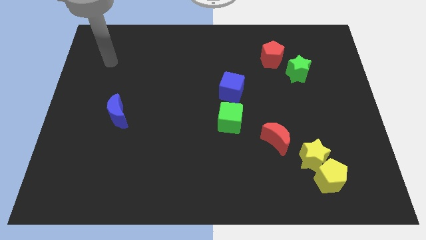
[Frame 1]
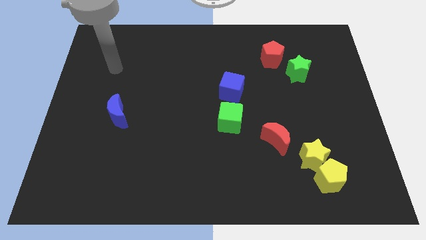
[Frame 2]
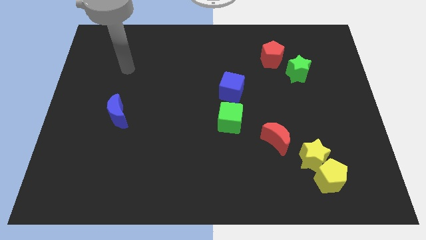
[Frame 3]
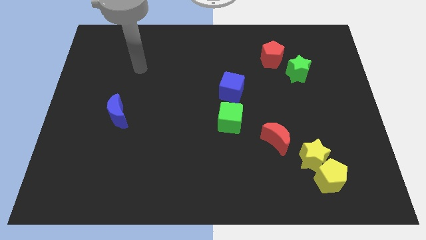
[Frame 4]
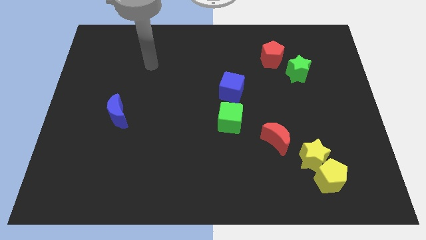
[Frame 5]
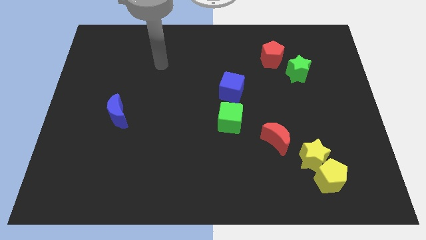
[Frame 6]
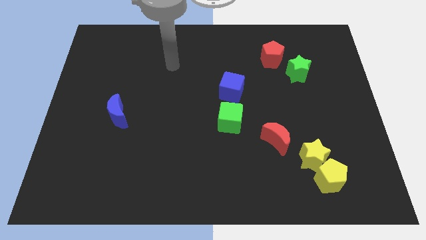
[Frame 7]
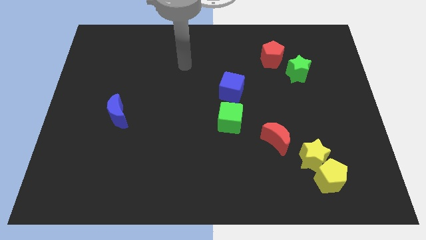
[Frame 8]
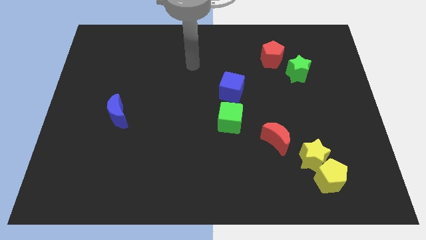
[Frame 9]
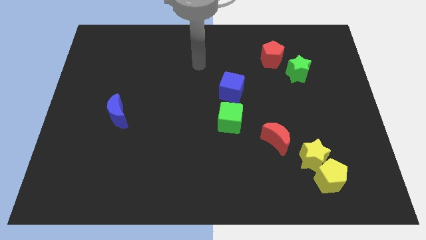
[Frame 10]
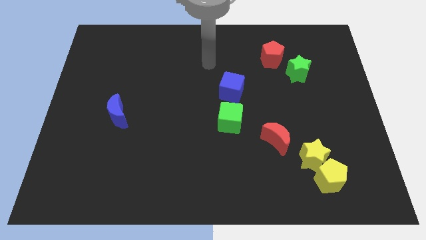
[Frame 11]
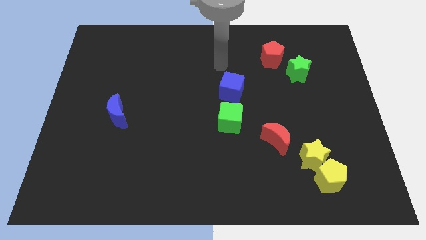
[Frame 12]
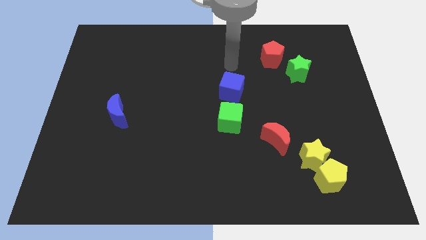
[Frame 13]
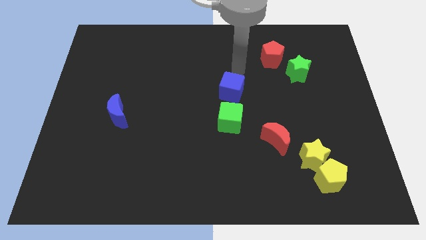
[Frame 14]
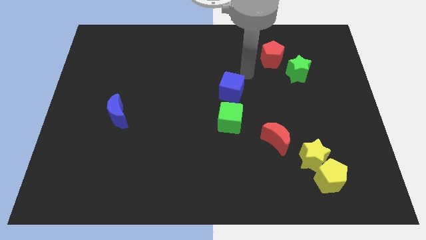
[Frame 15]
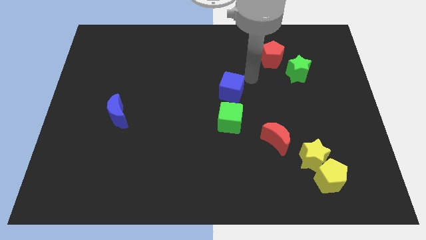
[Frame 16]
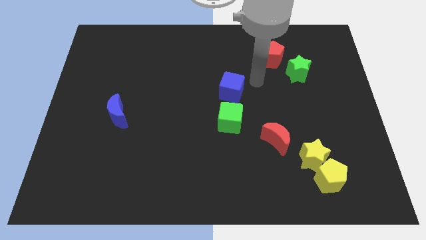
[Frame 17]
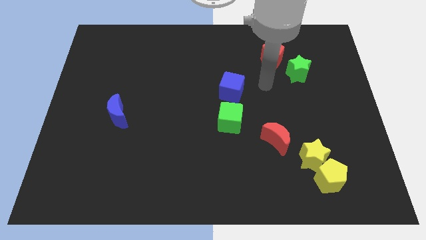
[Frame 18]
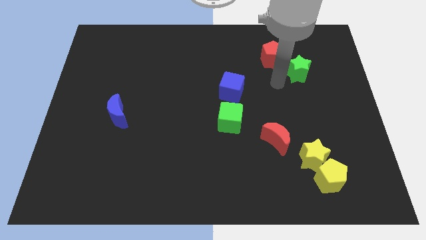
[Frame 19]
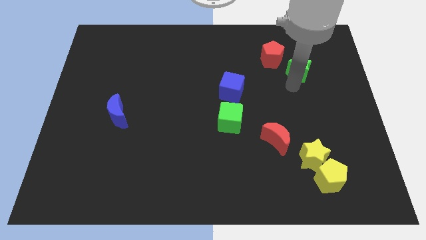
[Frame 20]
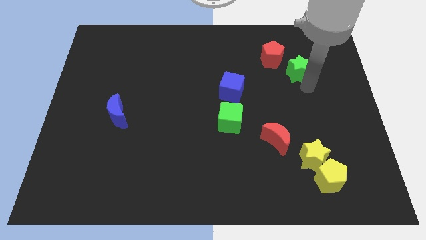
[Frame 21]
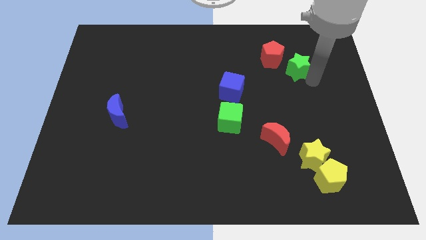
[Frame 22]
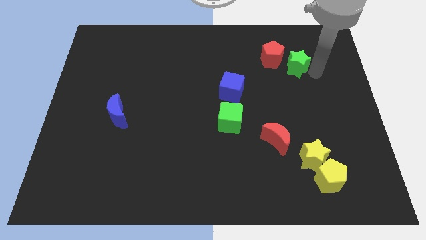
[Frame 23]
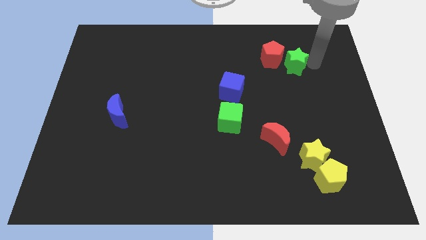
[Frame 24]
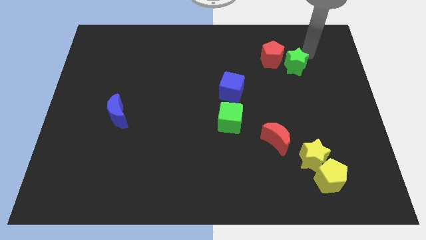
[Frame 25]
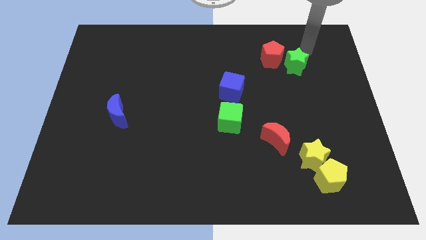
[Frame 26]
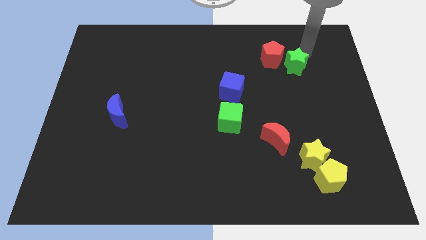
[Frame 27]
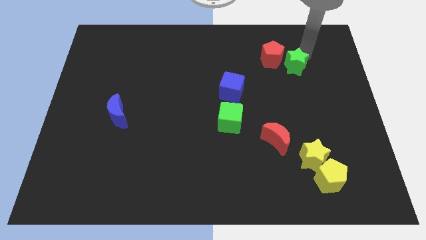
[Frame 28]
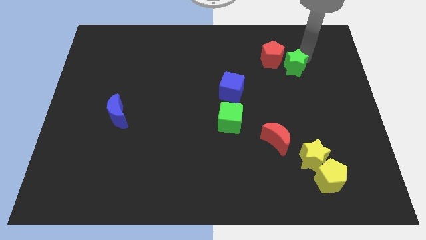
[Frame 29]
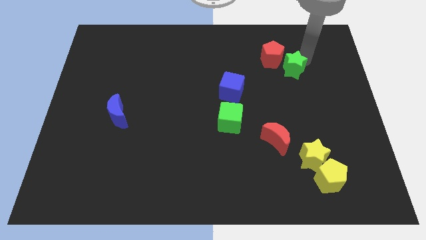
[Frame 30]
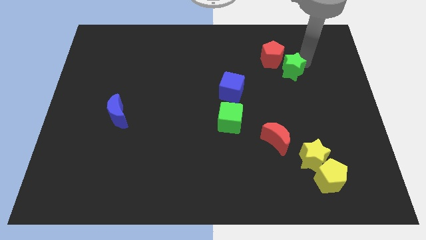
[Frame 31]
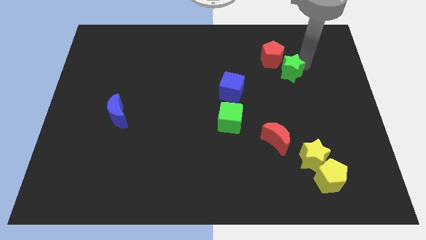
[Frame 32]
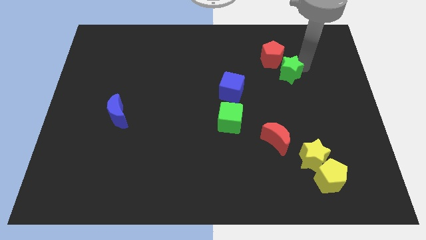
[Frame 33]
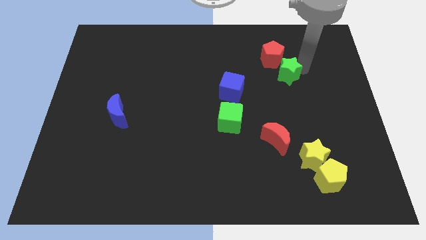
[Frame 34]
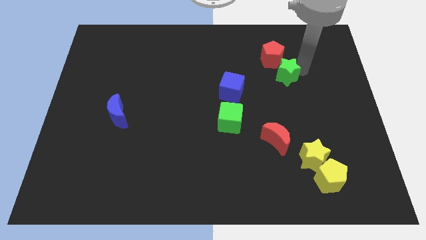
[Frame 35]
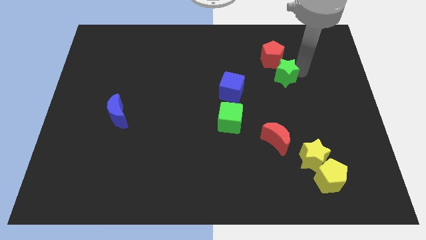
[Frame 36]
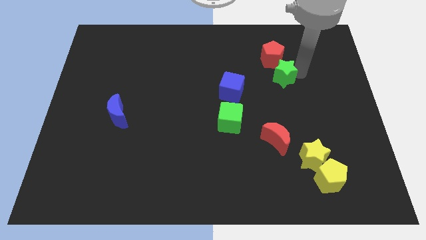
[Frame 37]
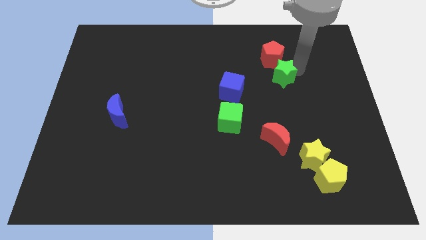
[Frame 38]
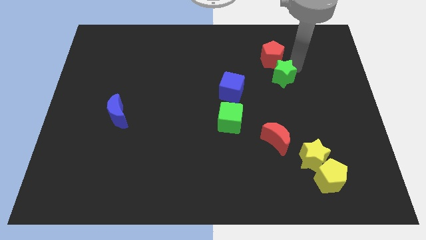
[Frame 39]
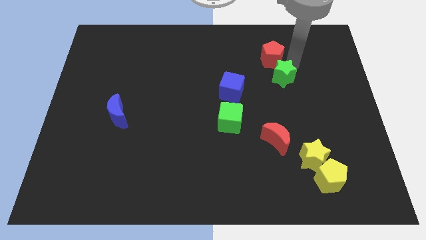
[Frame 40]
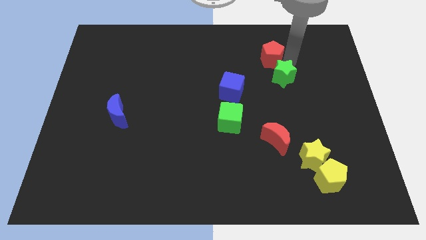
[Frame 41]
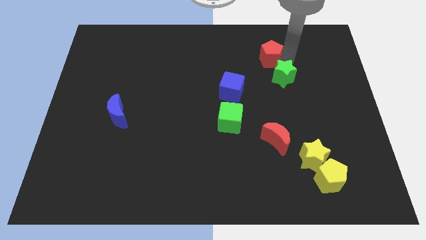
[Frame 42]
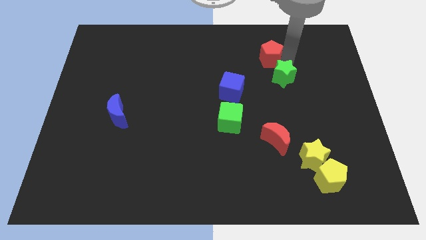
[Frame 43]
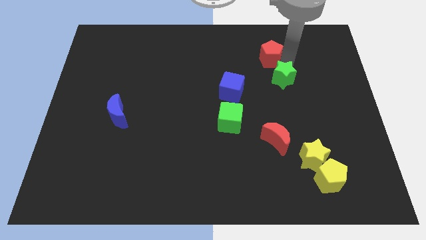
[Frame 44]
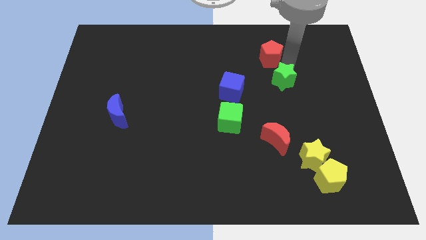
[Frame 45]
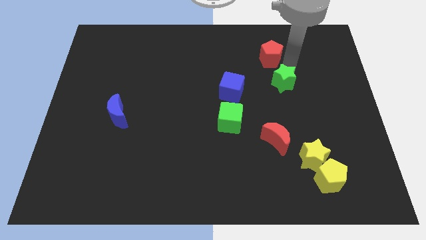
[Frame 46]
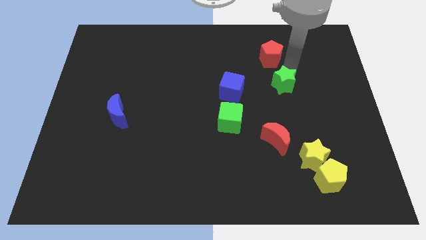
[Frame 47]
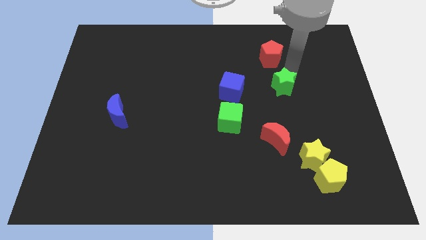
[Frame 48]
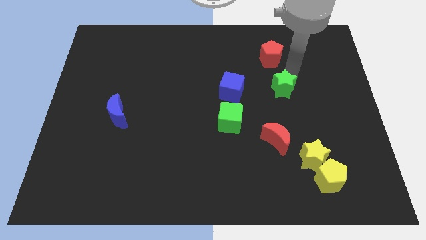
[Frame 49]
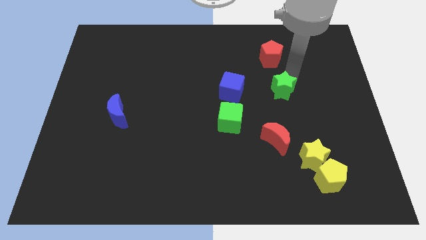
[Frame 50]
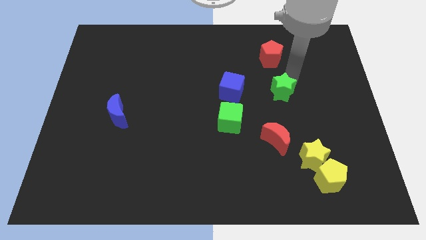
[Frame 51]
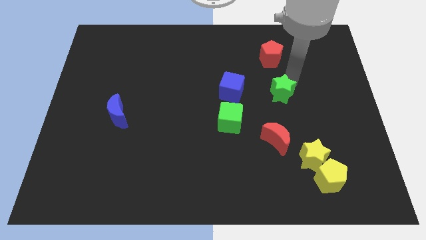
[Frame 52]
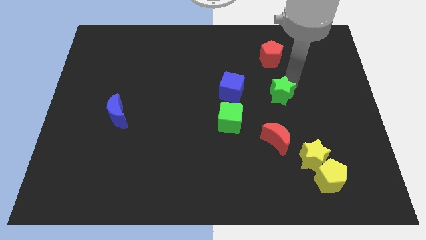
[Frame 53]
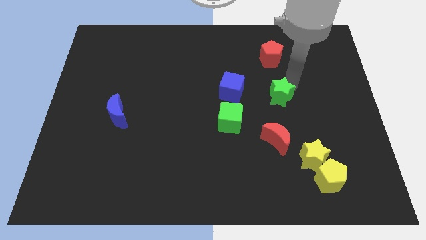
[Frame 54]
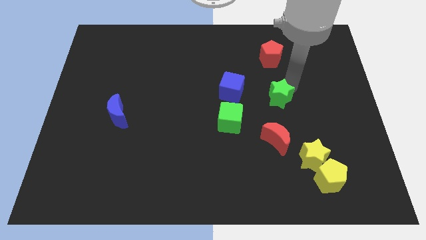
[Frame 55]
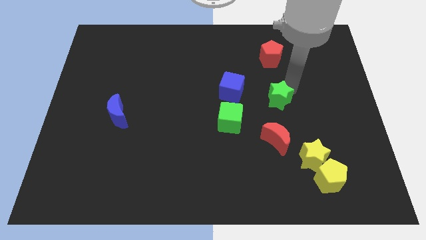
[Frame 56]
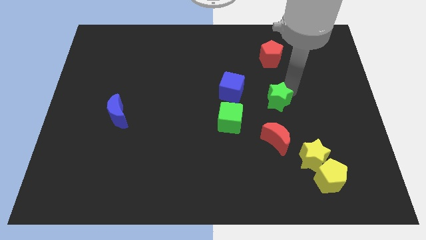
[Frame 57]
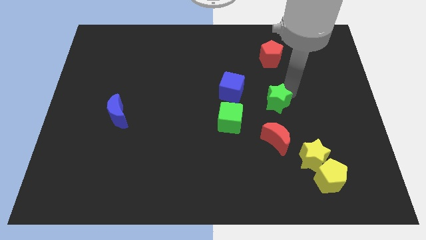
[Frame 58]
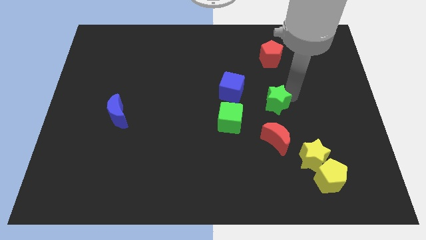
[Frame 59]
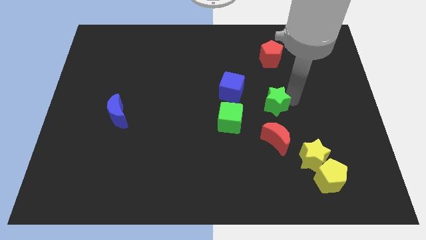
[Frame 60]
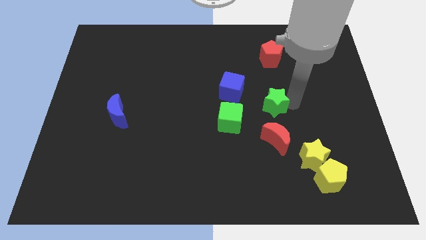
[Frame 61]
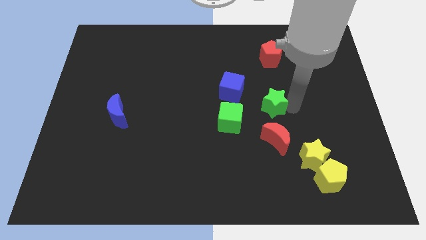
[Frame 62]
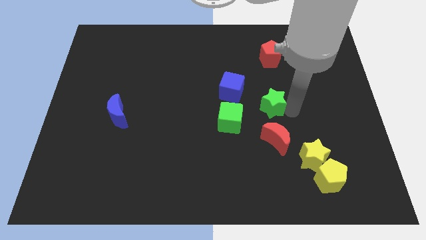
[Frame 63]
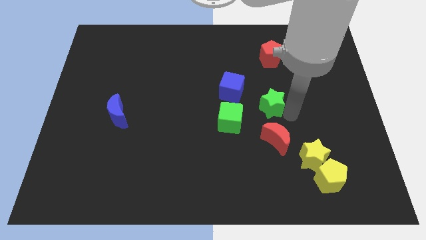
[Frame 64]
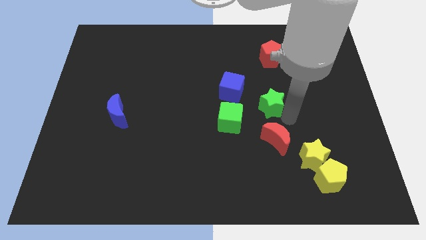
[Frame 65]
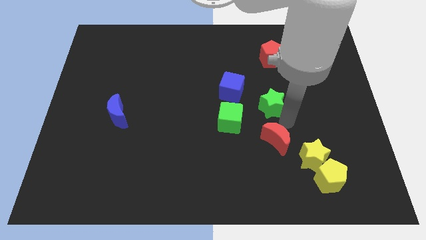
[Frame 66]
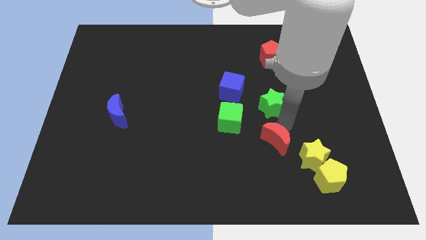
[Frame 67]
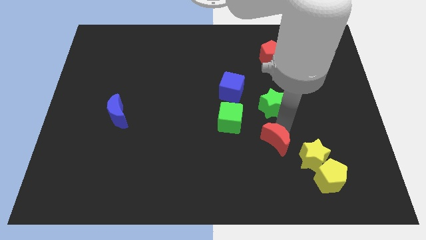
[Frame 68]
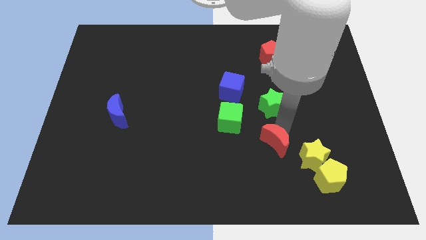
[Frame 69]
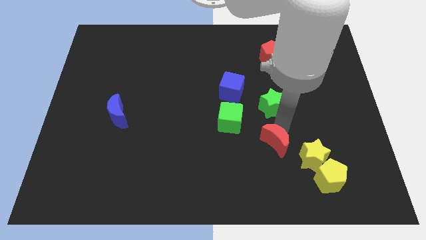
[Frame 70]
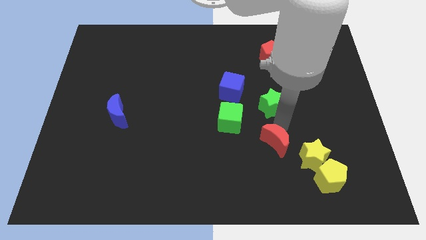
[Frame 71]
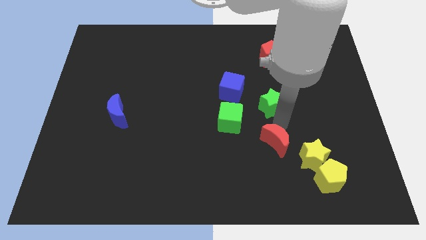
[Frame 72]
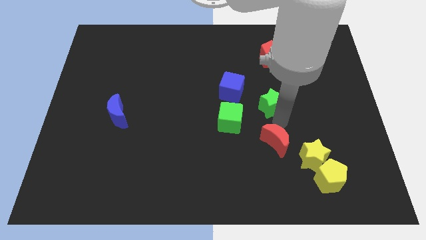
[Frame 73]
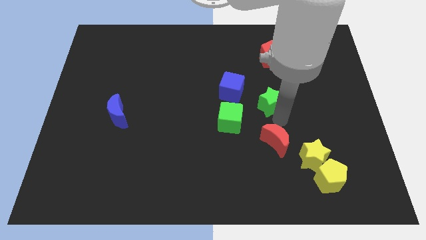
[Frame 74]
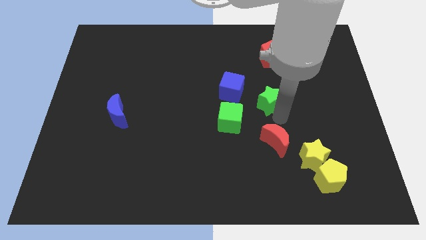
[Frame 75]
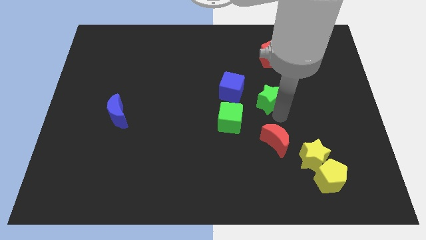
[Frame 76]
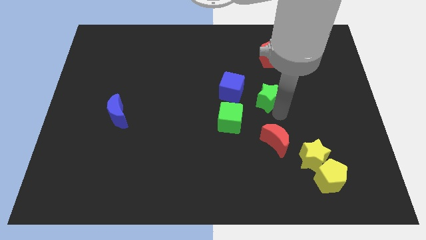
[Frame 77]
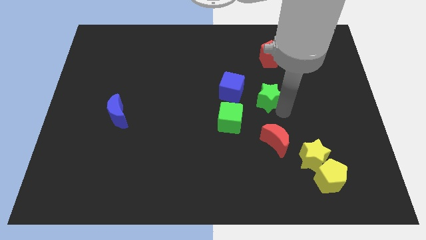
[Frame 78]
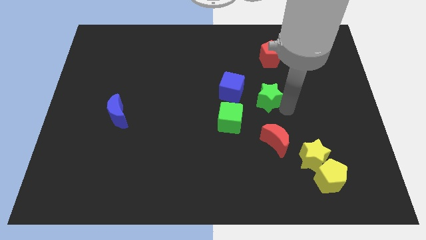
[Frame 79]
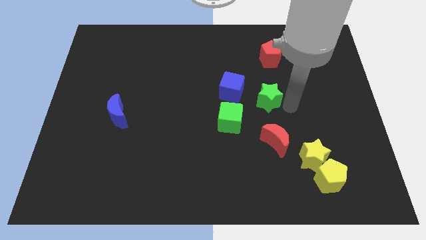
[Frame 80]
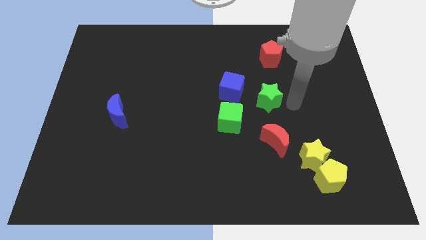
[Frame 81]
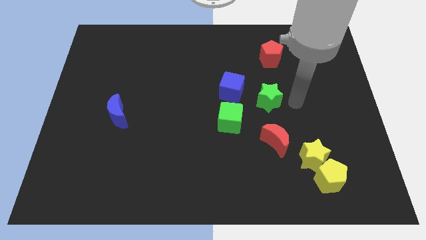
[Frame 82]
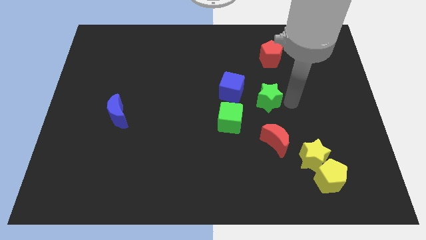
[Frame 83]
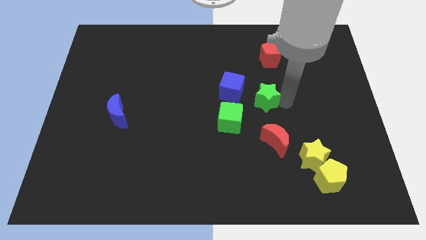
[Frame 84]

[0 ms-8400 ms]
move the green star to the middle
